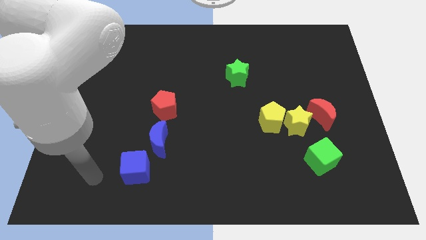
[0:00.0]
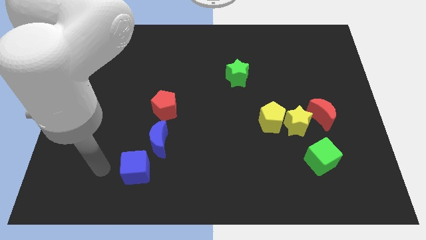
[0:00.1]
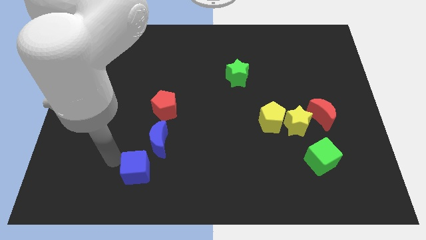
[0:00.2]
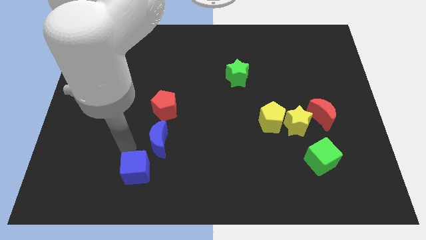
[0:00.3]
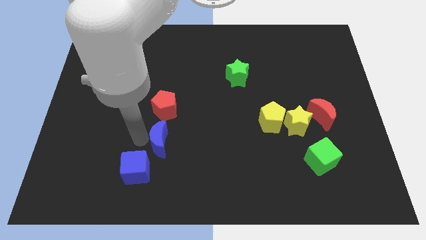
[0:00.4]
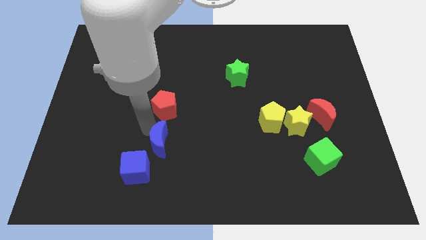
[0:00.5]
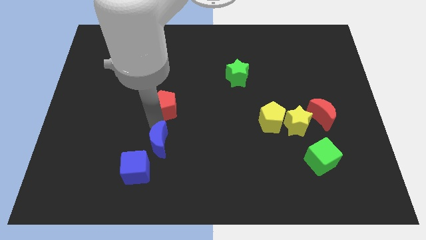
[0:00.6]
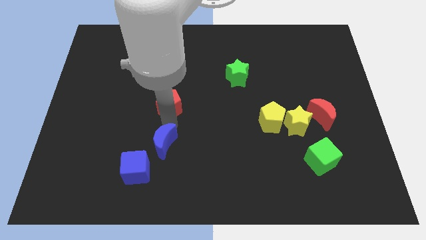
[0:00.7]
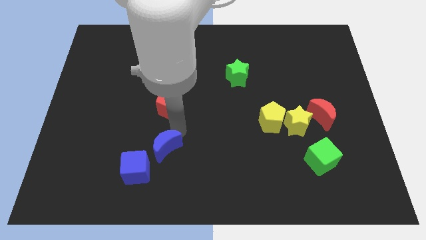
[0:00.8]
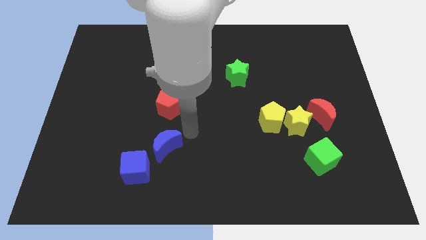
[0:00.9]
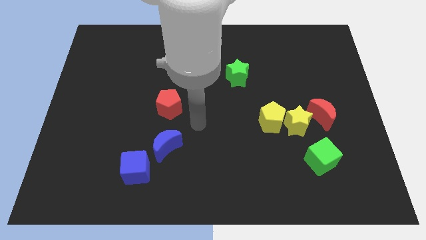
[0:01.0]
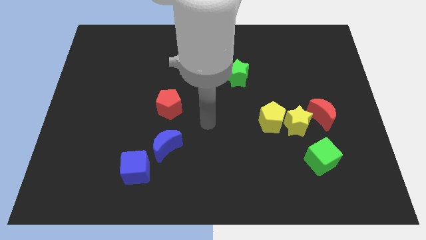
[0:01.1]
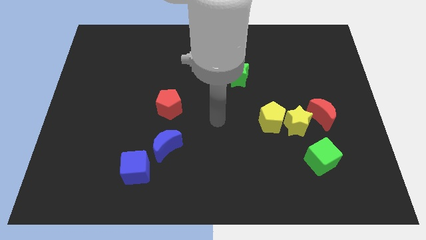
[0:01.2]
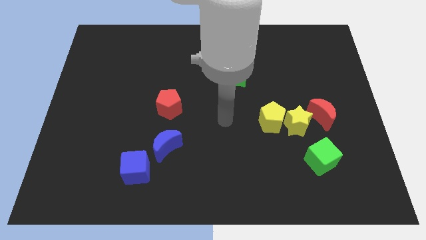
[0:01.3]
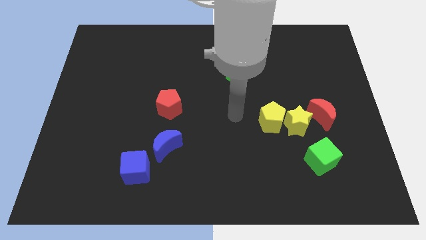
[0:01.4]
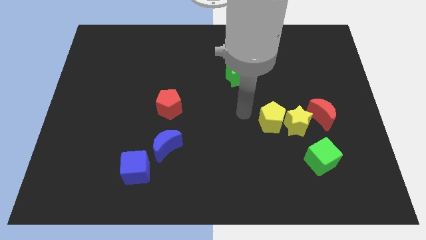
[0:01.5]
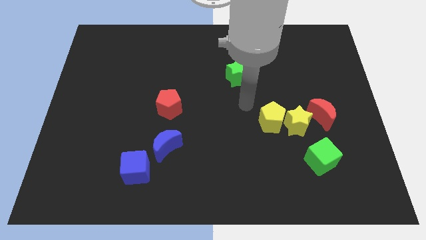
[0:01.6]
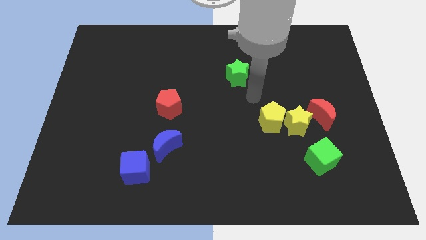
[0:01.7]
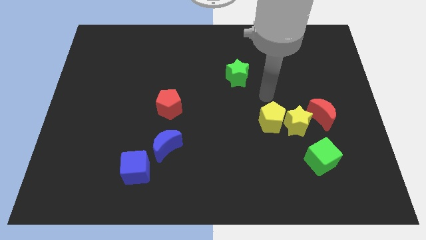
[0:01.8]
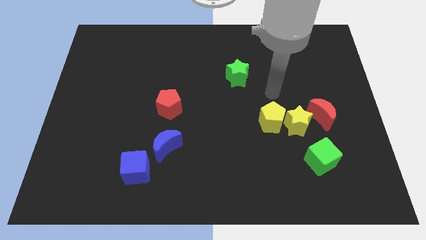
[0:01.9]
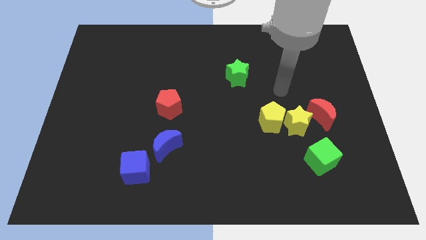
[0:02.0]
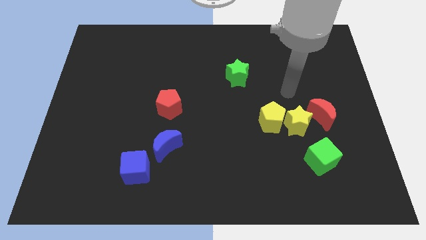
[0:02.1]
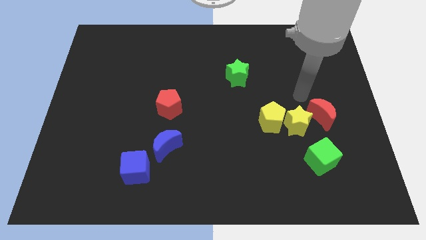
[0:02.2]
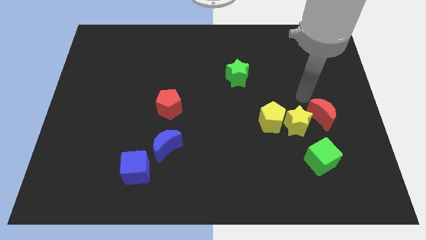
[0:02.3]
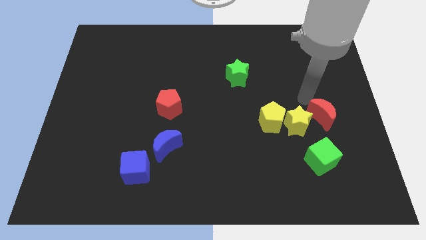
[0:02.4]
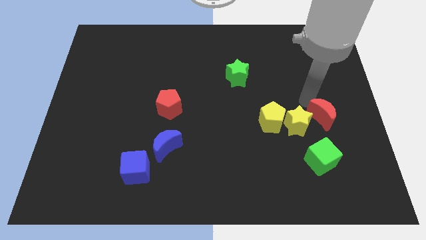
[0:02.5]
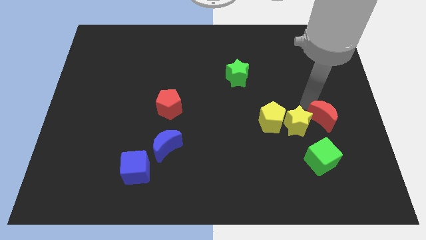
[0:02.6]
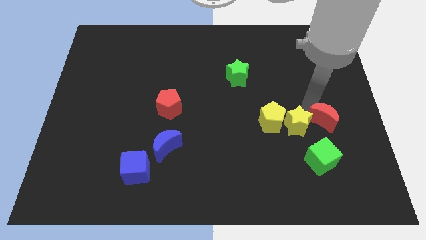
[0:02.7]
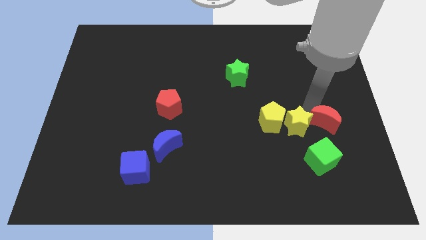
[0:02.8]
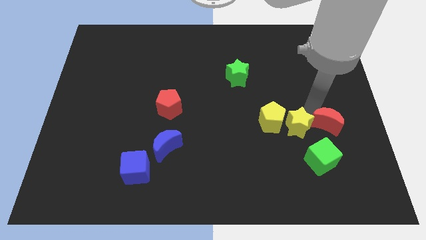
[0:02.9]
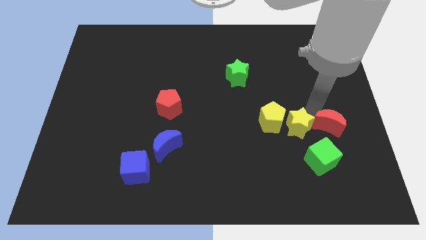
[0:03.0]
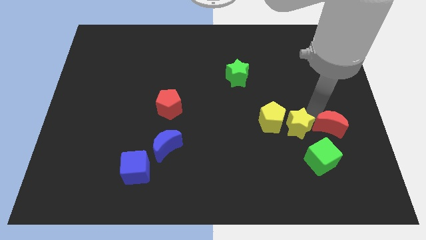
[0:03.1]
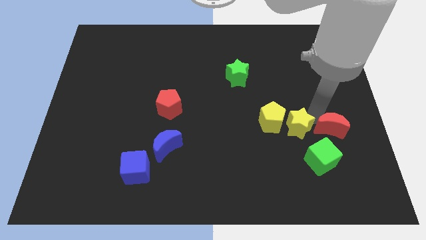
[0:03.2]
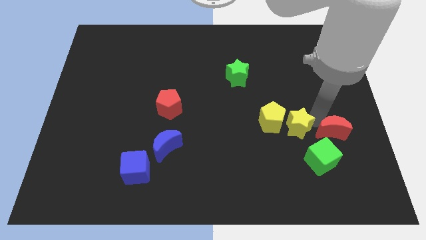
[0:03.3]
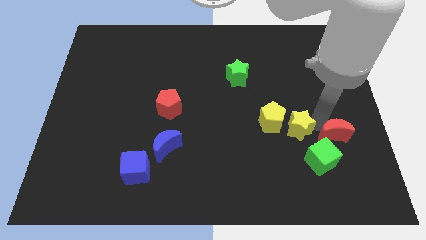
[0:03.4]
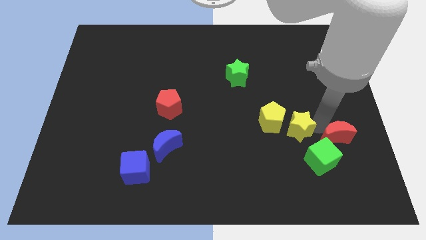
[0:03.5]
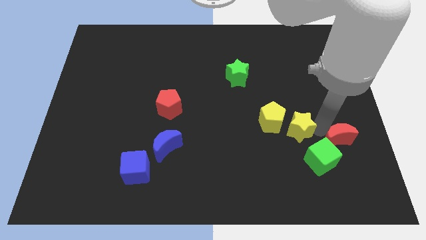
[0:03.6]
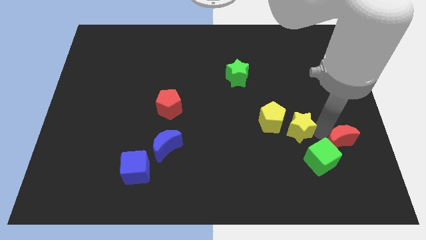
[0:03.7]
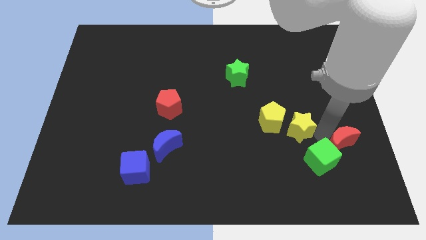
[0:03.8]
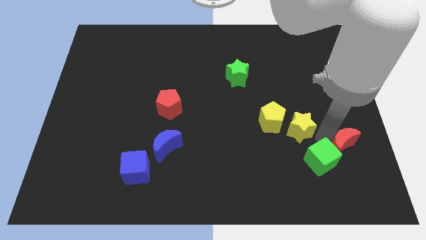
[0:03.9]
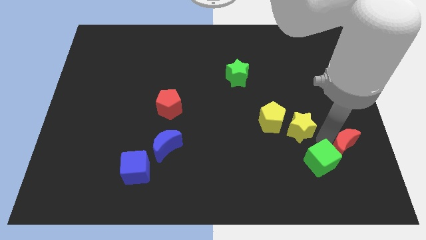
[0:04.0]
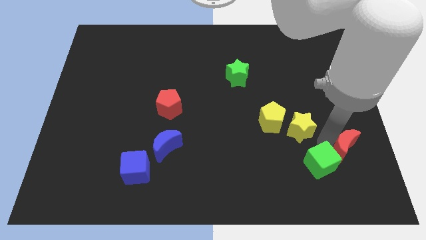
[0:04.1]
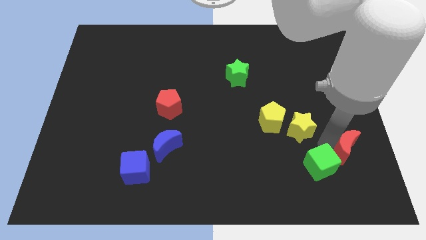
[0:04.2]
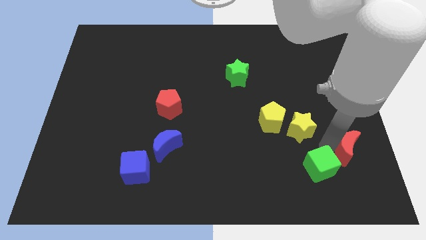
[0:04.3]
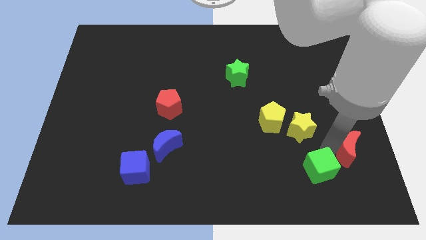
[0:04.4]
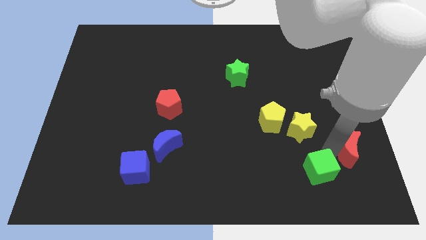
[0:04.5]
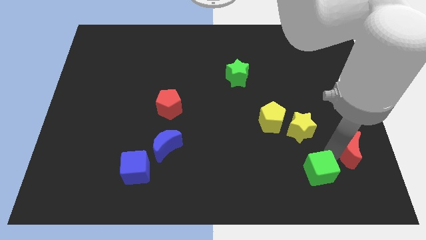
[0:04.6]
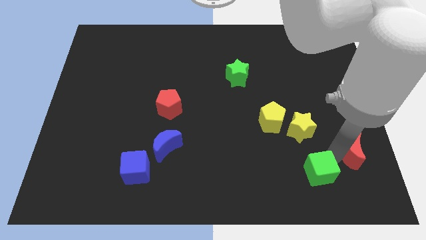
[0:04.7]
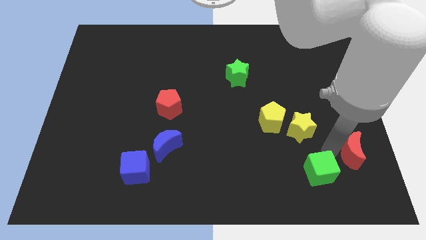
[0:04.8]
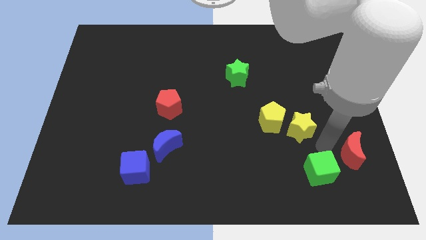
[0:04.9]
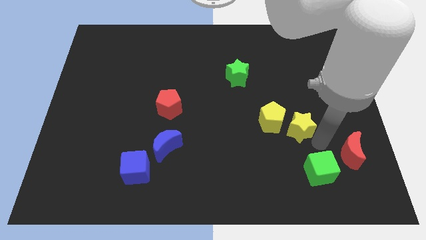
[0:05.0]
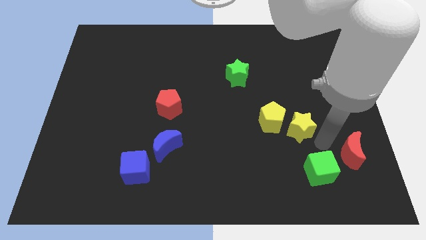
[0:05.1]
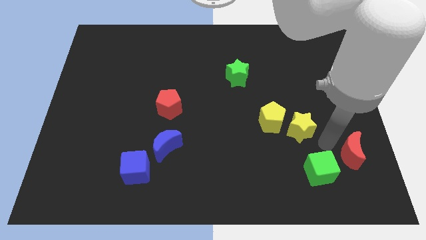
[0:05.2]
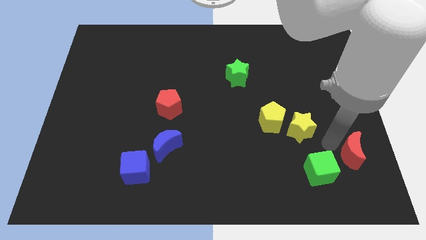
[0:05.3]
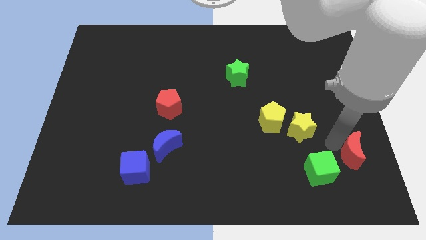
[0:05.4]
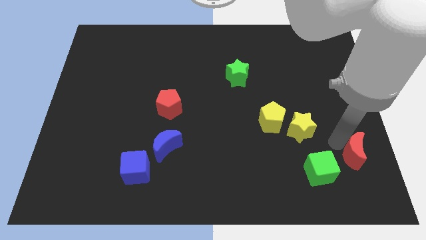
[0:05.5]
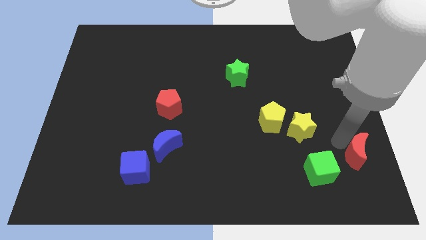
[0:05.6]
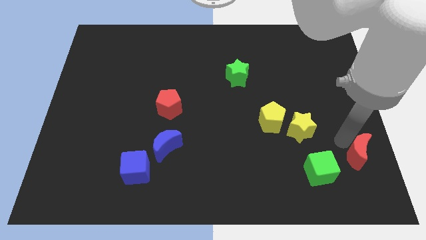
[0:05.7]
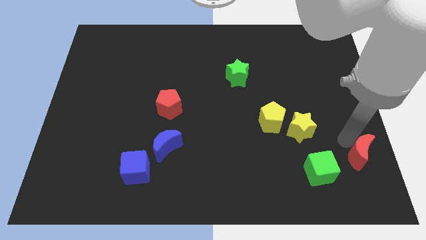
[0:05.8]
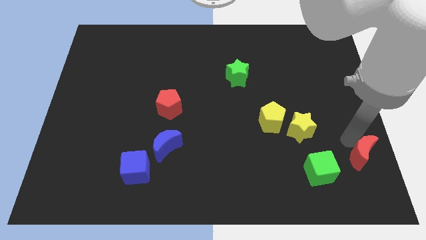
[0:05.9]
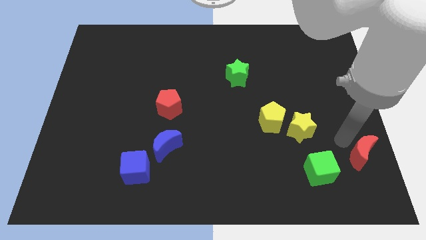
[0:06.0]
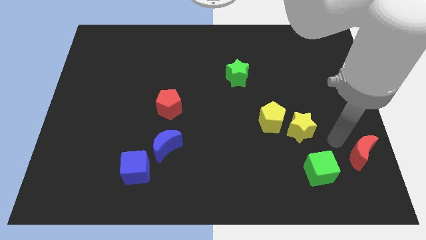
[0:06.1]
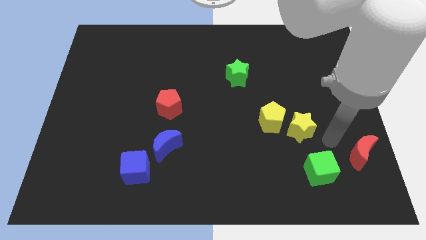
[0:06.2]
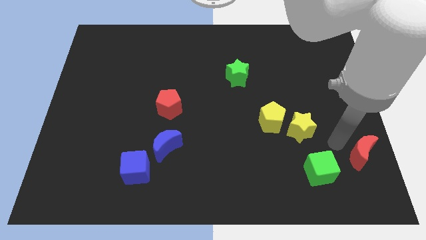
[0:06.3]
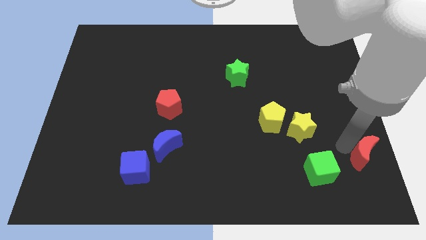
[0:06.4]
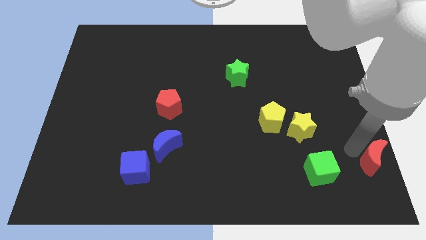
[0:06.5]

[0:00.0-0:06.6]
put the red moon to the bottom right

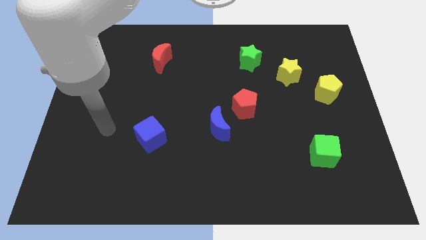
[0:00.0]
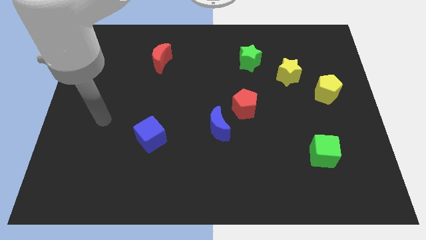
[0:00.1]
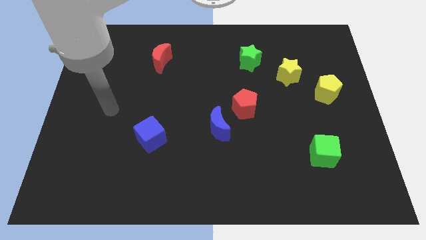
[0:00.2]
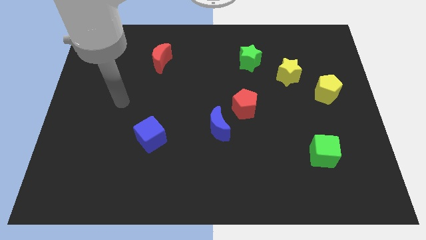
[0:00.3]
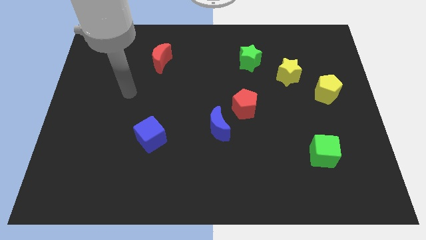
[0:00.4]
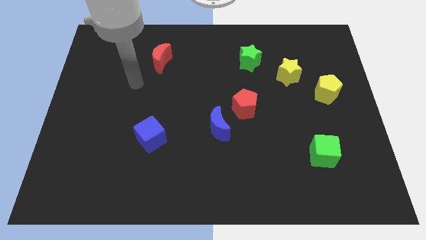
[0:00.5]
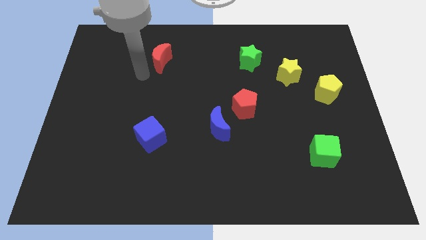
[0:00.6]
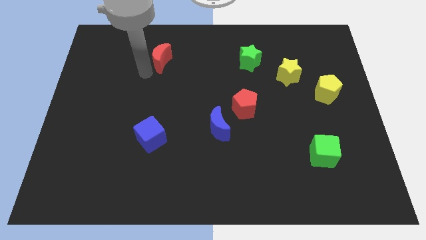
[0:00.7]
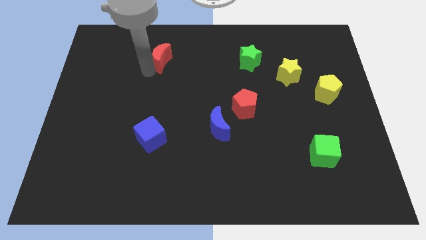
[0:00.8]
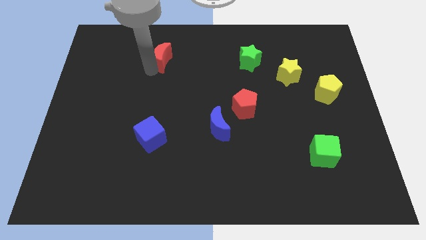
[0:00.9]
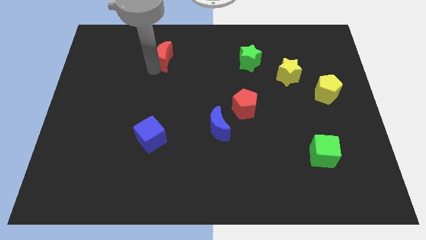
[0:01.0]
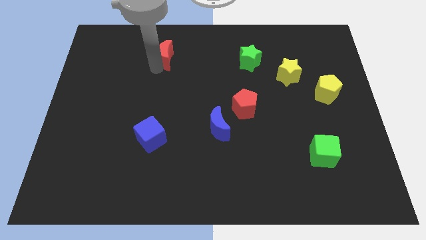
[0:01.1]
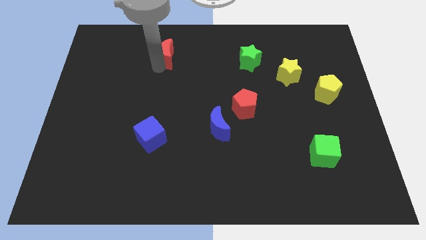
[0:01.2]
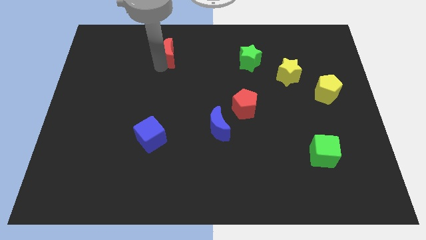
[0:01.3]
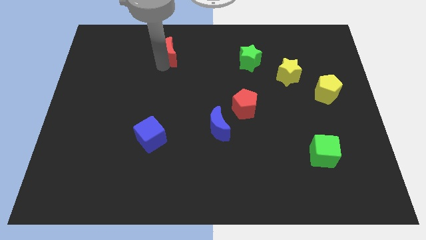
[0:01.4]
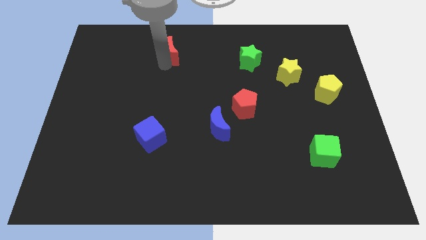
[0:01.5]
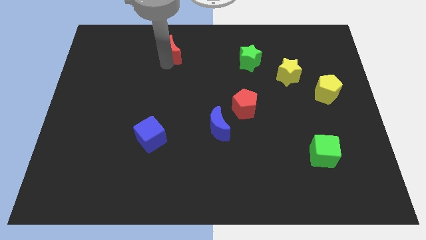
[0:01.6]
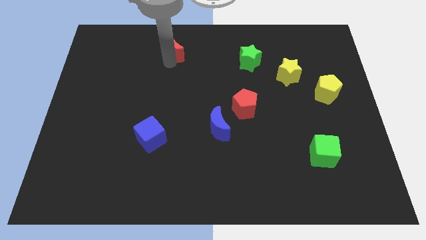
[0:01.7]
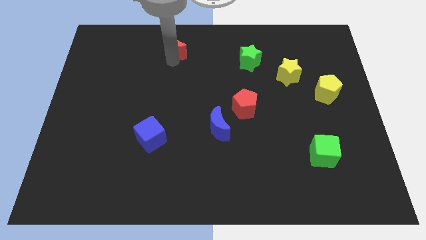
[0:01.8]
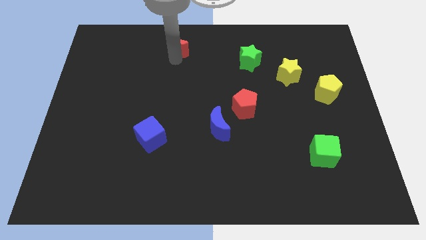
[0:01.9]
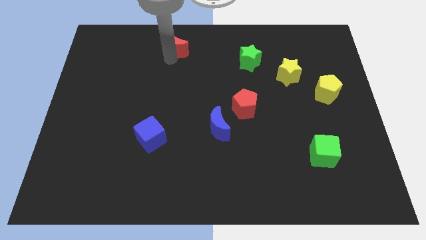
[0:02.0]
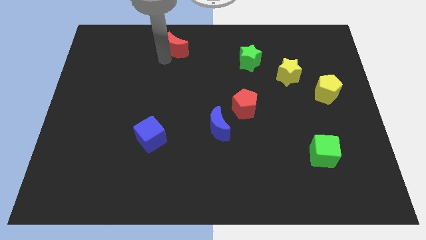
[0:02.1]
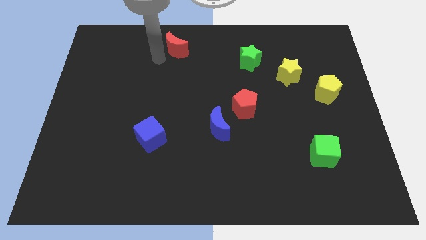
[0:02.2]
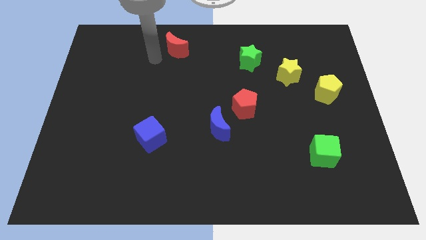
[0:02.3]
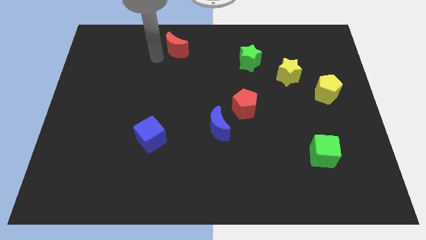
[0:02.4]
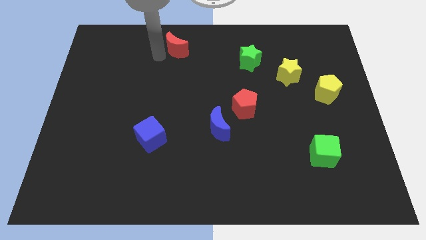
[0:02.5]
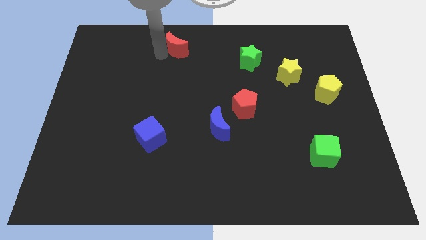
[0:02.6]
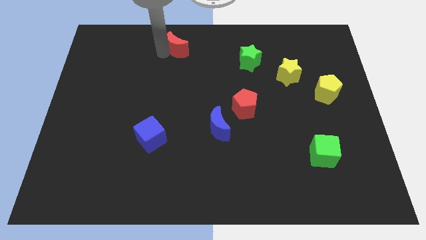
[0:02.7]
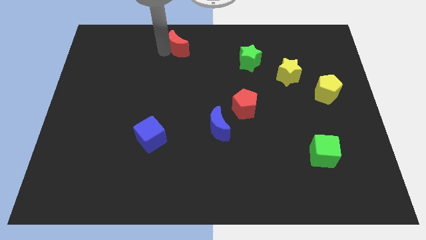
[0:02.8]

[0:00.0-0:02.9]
push the red moon to the towards your base
